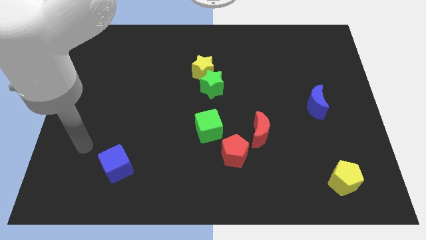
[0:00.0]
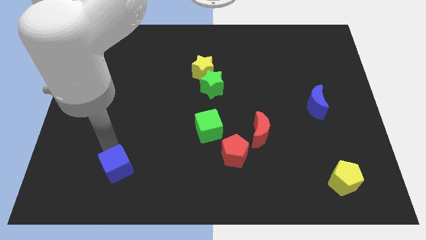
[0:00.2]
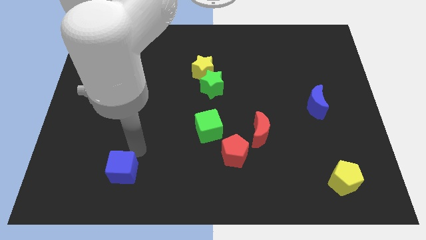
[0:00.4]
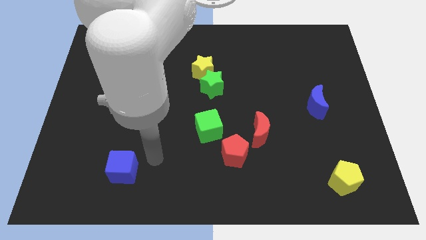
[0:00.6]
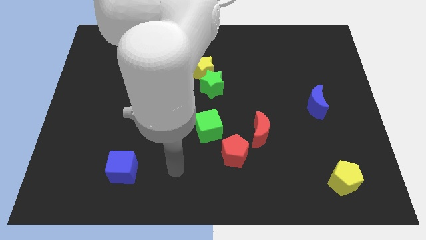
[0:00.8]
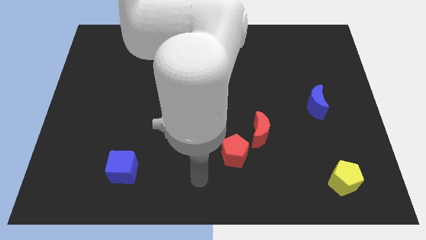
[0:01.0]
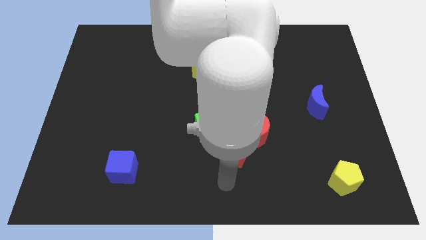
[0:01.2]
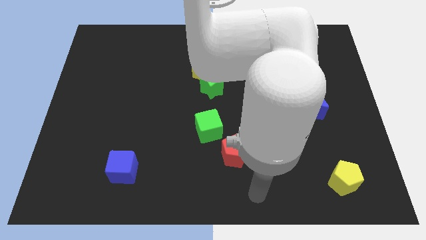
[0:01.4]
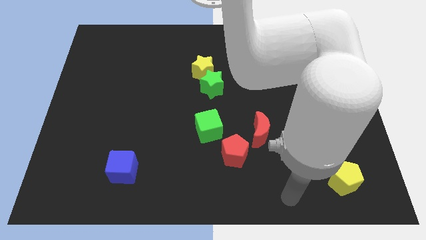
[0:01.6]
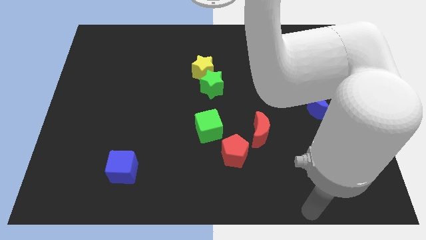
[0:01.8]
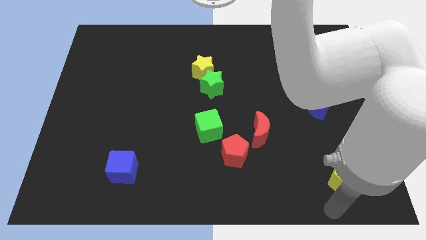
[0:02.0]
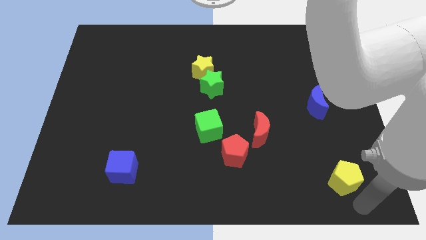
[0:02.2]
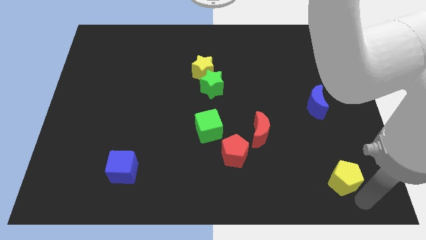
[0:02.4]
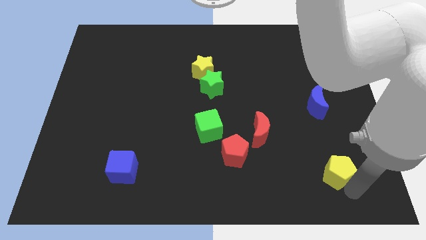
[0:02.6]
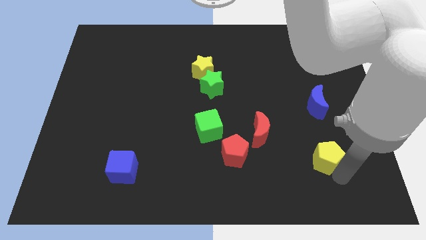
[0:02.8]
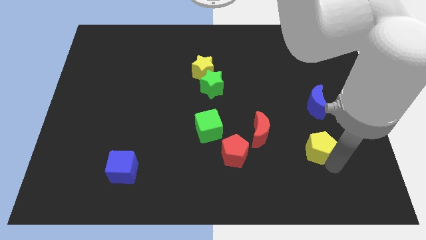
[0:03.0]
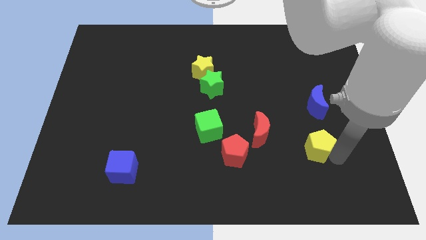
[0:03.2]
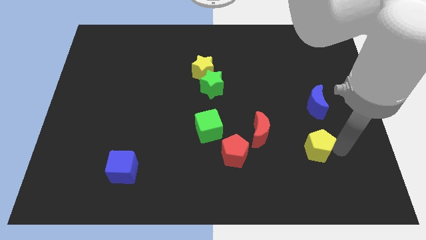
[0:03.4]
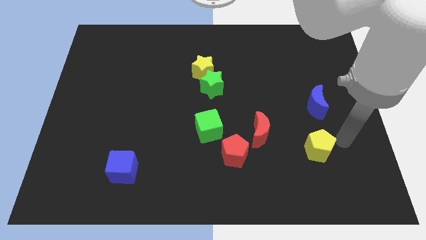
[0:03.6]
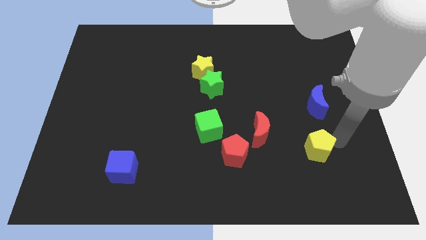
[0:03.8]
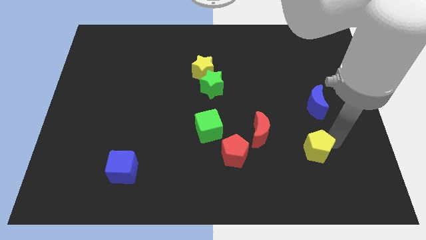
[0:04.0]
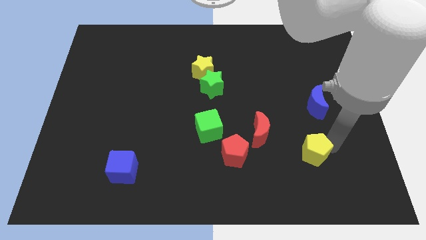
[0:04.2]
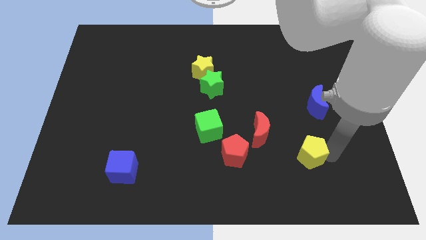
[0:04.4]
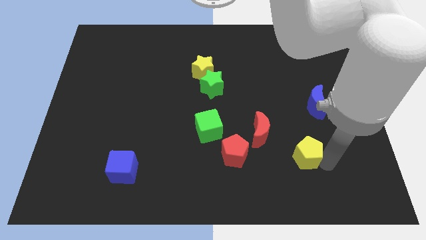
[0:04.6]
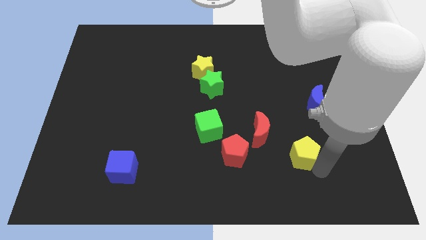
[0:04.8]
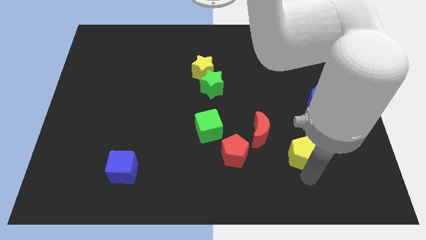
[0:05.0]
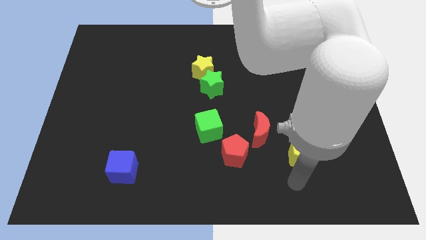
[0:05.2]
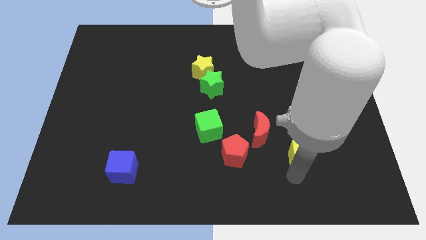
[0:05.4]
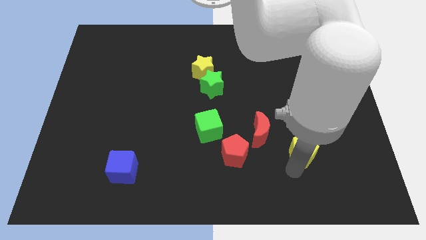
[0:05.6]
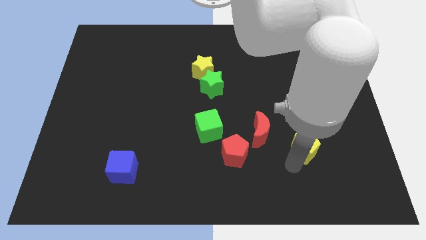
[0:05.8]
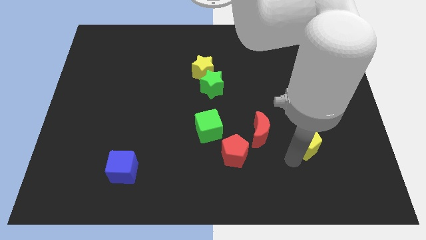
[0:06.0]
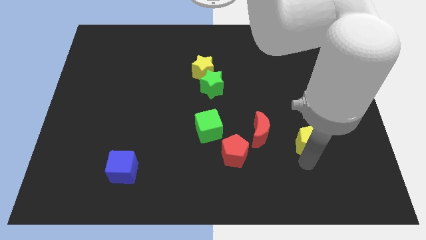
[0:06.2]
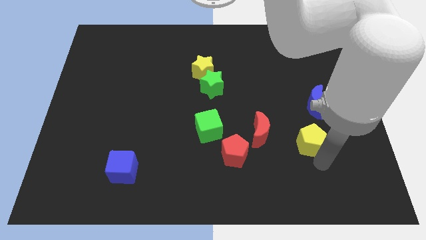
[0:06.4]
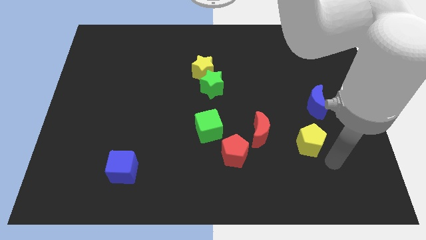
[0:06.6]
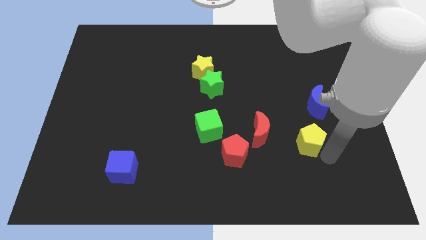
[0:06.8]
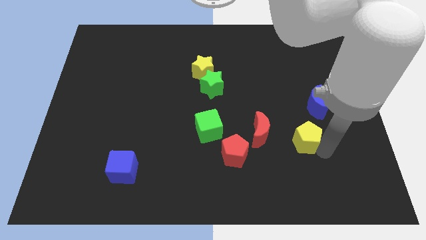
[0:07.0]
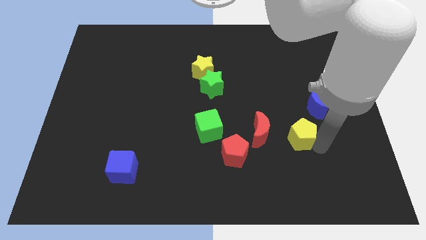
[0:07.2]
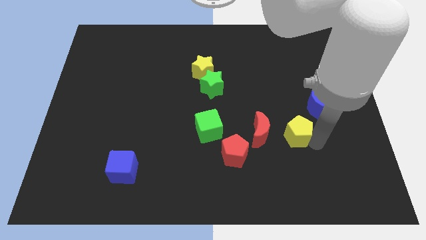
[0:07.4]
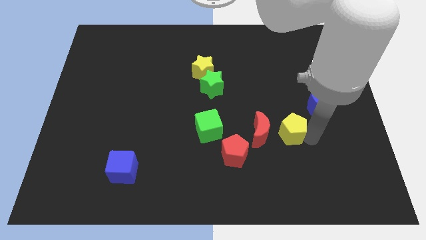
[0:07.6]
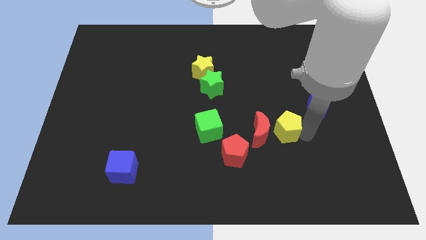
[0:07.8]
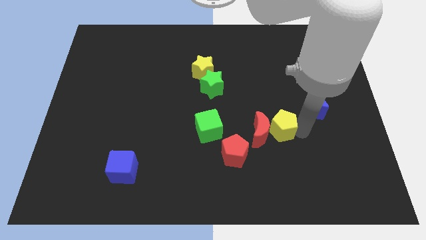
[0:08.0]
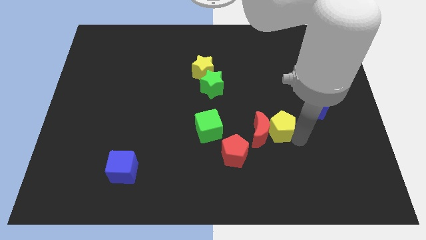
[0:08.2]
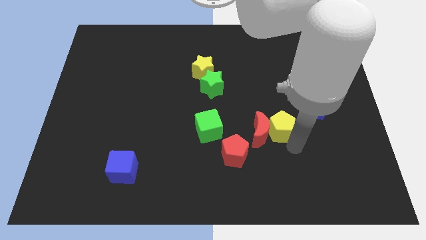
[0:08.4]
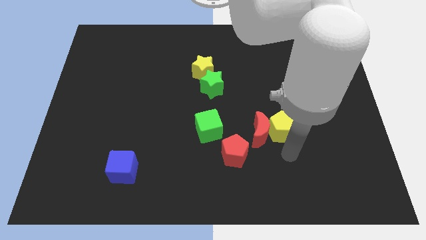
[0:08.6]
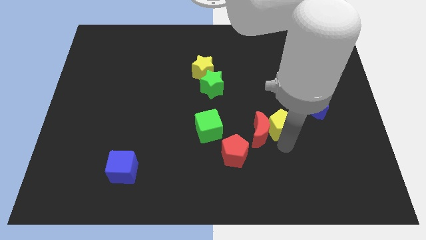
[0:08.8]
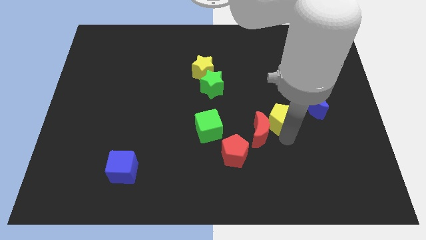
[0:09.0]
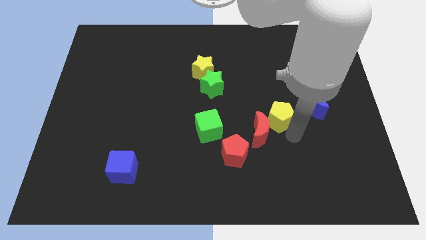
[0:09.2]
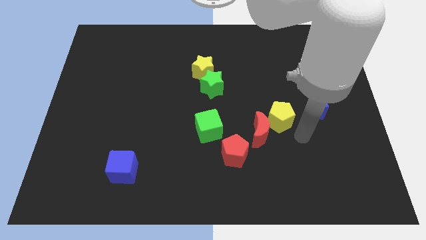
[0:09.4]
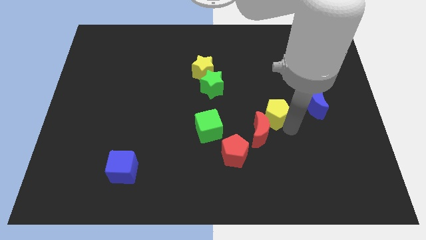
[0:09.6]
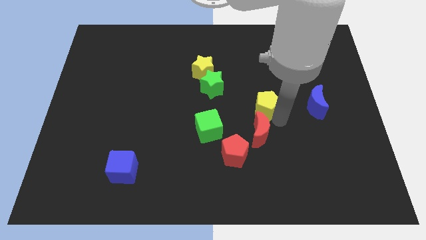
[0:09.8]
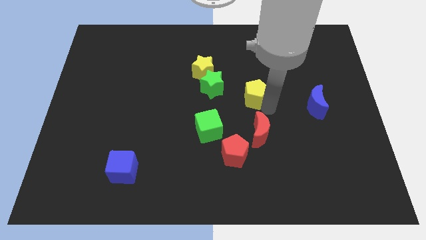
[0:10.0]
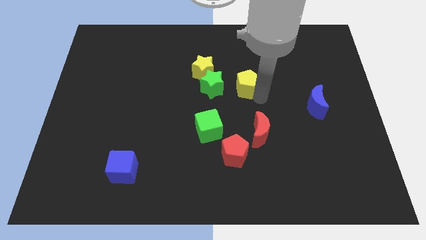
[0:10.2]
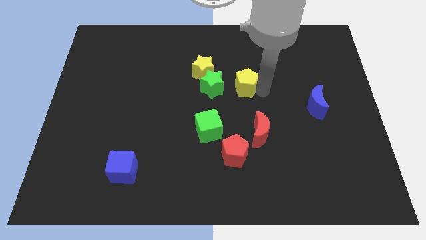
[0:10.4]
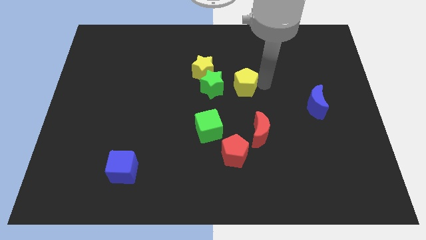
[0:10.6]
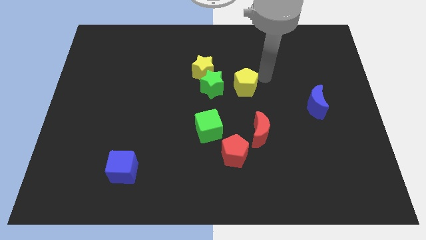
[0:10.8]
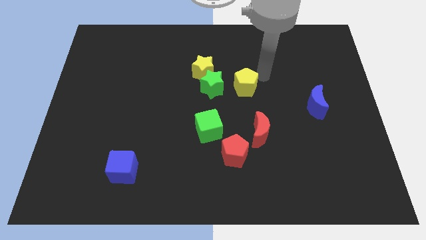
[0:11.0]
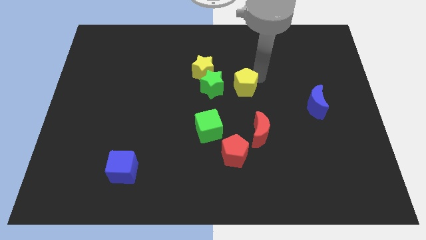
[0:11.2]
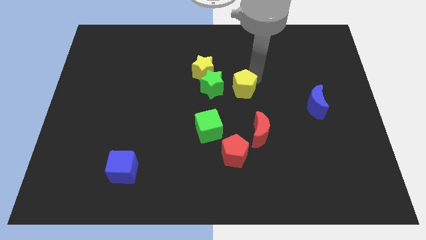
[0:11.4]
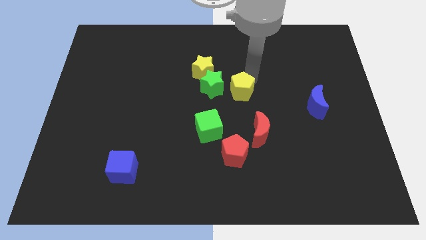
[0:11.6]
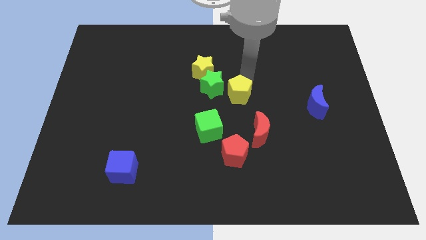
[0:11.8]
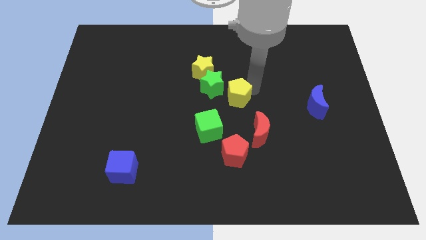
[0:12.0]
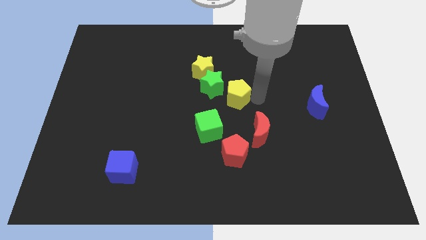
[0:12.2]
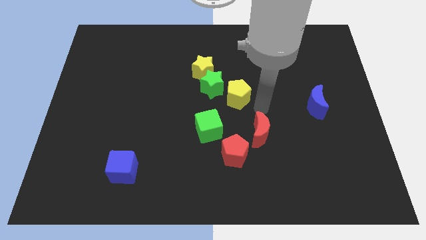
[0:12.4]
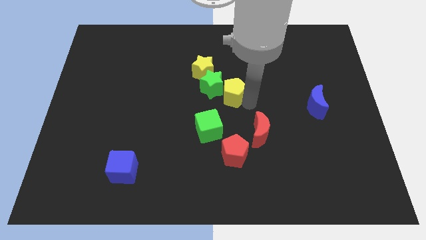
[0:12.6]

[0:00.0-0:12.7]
move the yellow pentagon towards the green star

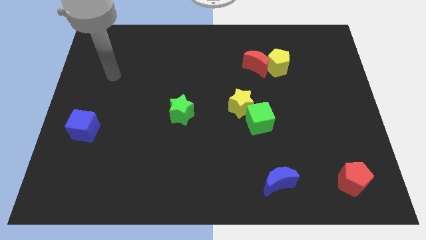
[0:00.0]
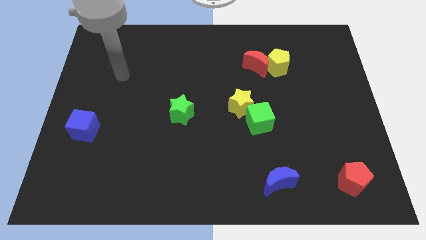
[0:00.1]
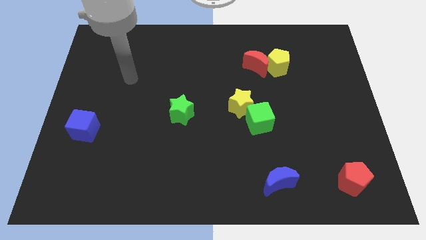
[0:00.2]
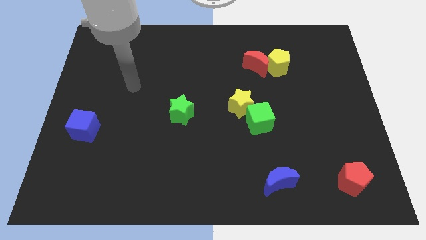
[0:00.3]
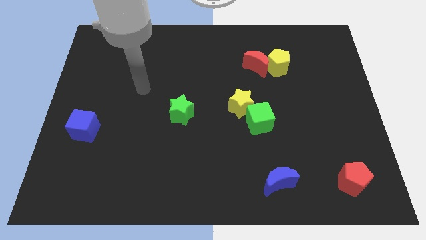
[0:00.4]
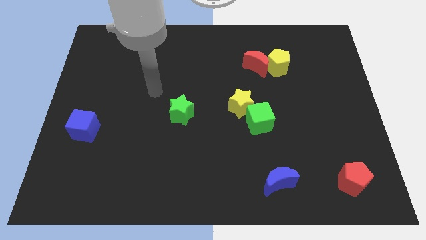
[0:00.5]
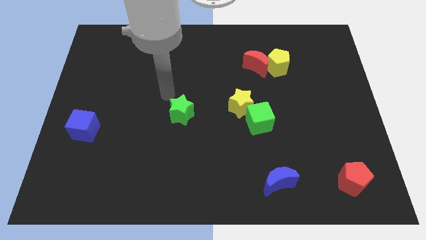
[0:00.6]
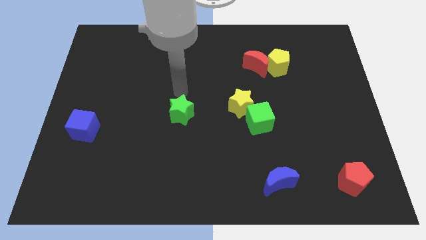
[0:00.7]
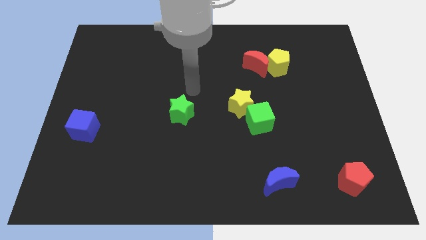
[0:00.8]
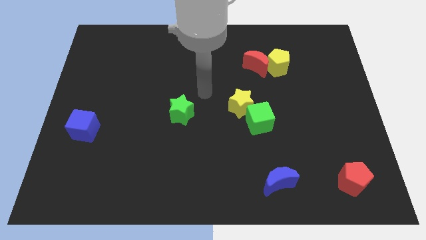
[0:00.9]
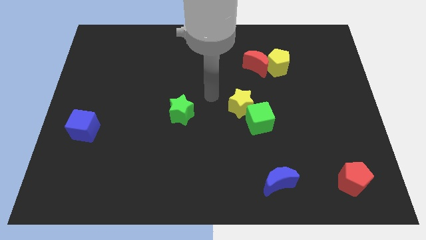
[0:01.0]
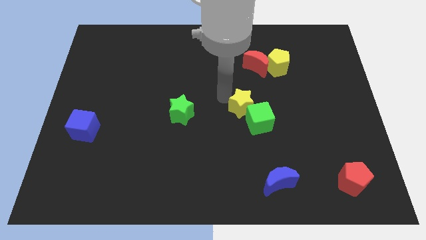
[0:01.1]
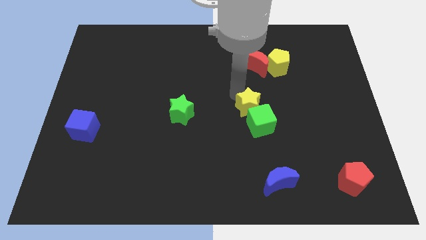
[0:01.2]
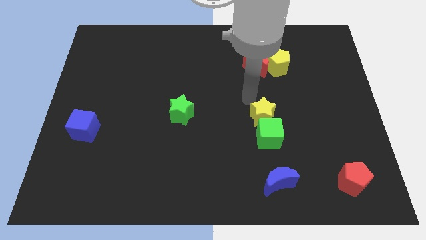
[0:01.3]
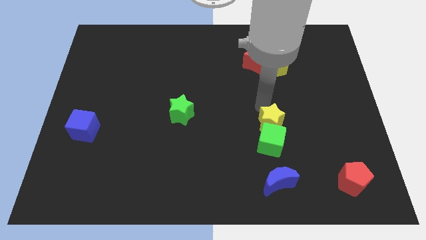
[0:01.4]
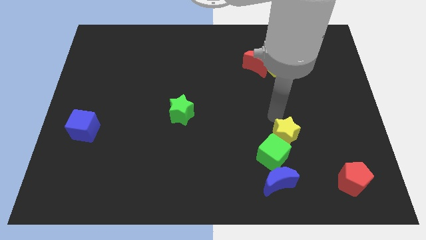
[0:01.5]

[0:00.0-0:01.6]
put the green cube to the blue moon
